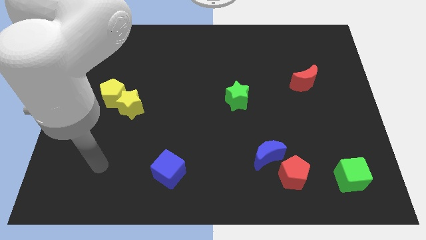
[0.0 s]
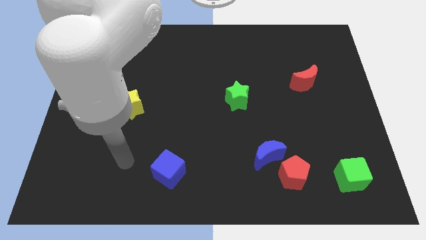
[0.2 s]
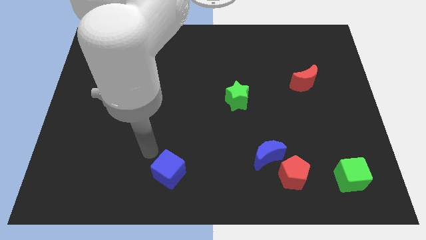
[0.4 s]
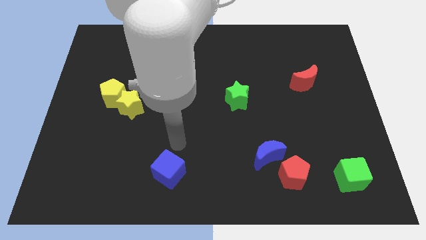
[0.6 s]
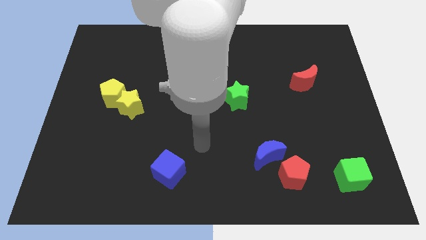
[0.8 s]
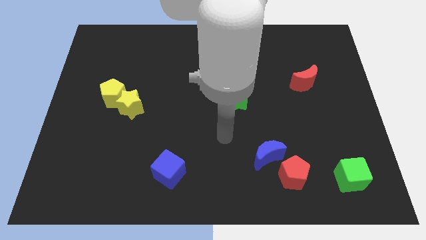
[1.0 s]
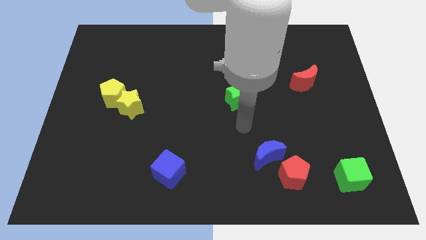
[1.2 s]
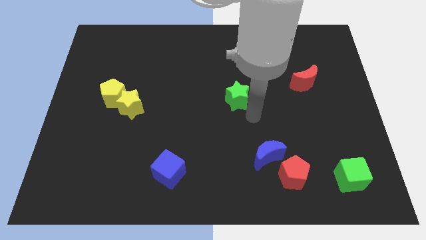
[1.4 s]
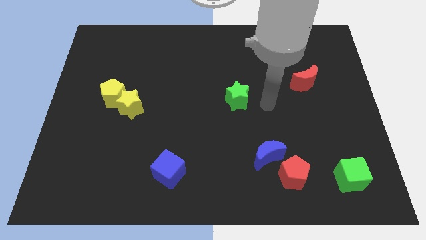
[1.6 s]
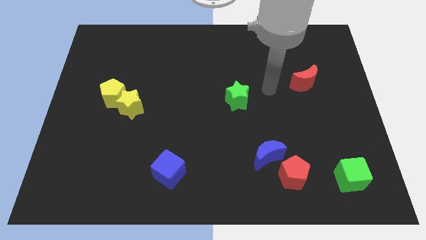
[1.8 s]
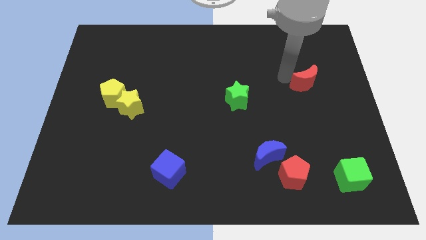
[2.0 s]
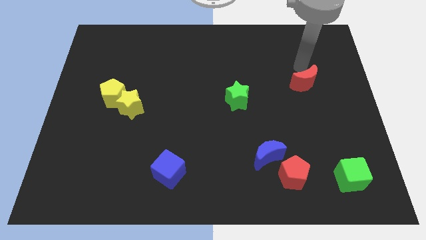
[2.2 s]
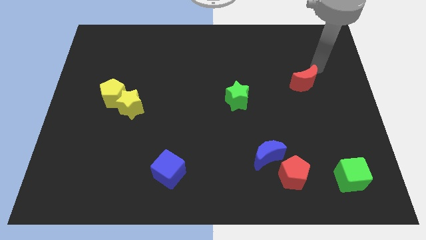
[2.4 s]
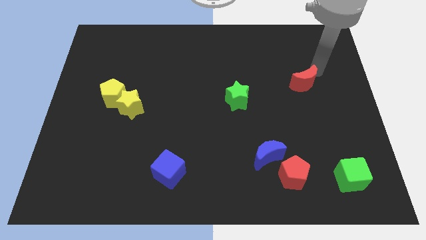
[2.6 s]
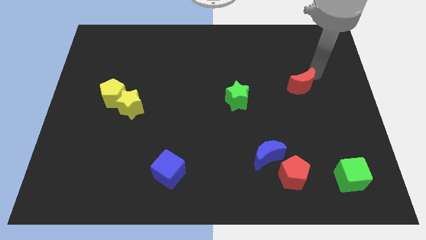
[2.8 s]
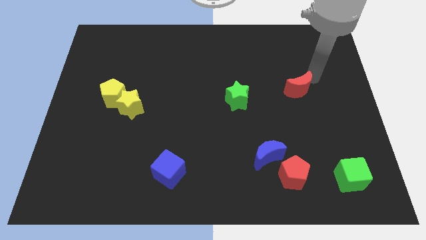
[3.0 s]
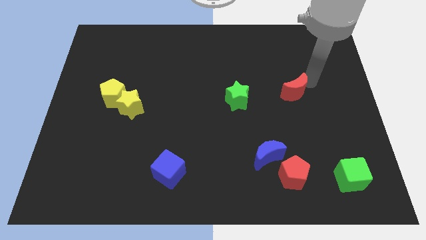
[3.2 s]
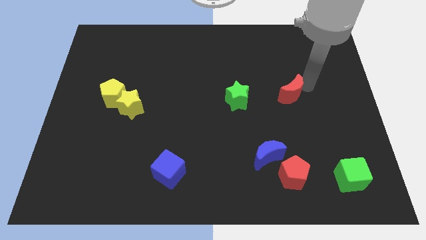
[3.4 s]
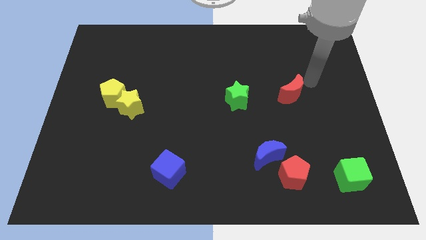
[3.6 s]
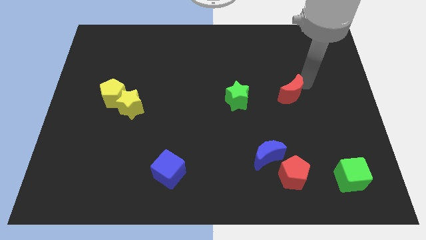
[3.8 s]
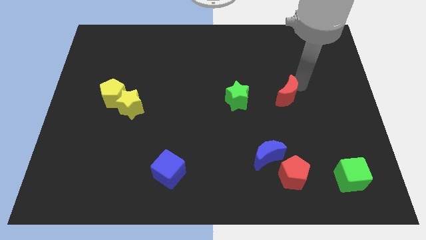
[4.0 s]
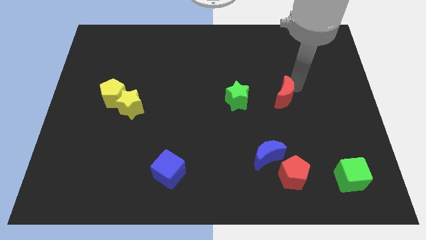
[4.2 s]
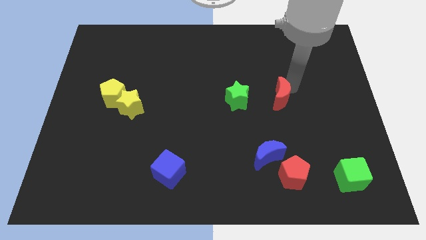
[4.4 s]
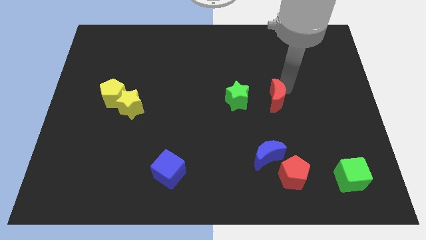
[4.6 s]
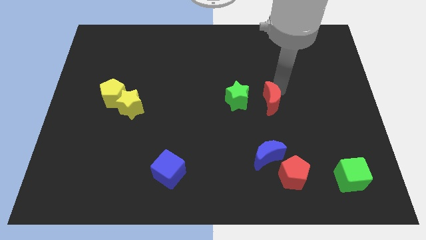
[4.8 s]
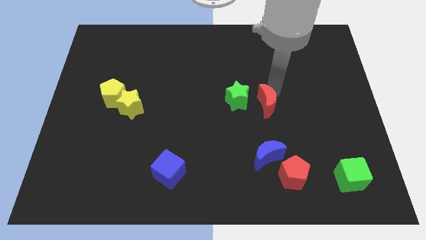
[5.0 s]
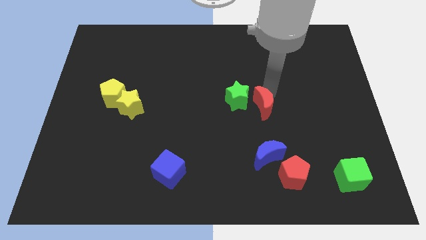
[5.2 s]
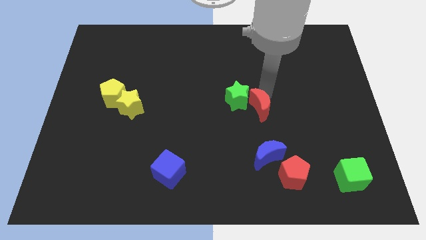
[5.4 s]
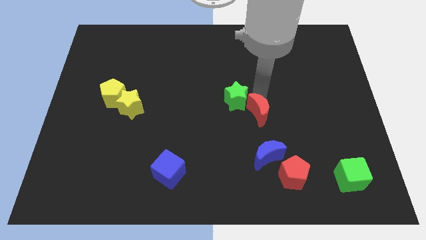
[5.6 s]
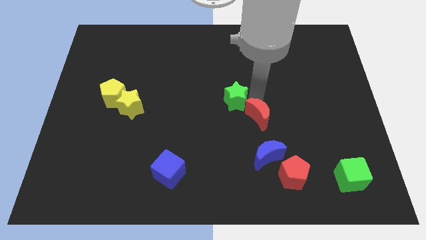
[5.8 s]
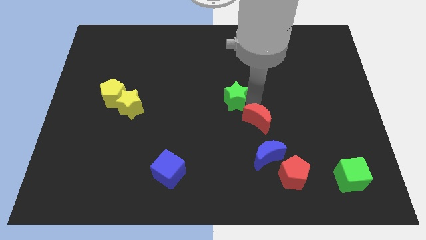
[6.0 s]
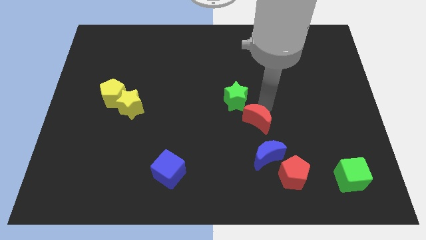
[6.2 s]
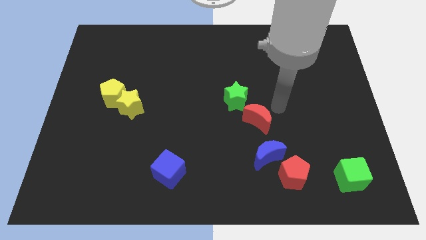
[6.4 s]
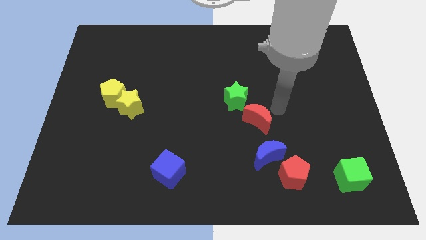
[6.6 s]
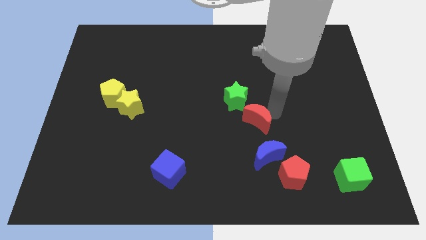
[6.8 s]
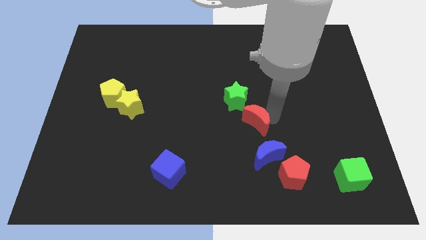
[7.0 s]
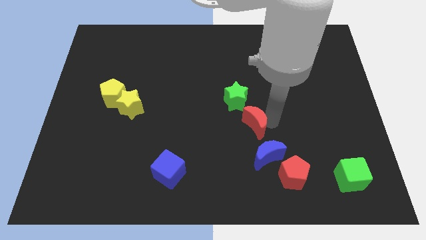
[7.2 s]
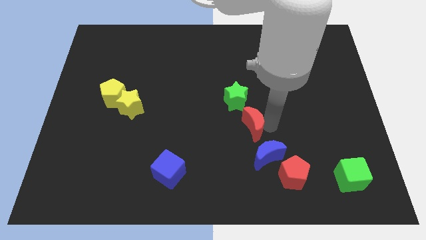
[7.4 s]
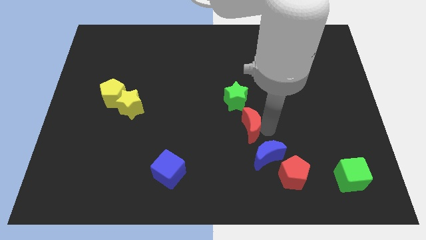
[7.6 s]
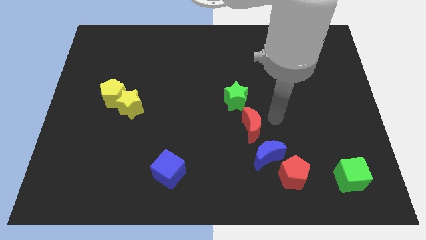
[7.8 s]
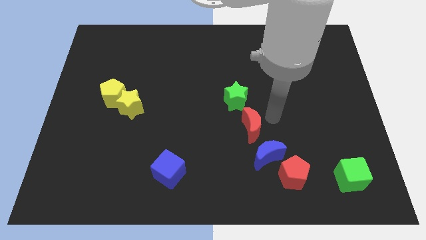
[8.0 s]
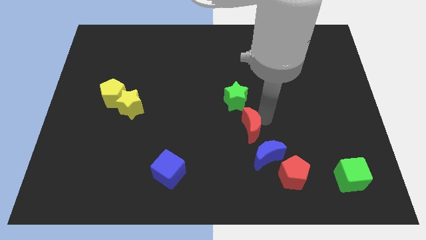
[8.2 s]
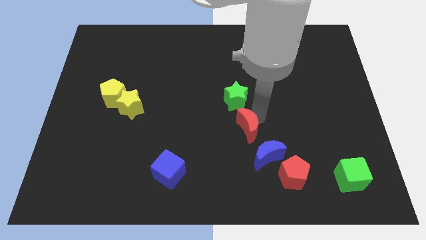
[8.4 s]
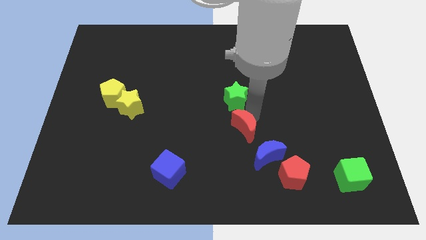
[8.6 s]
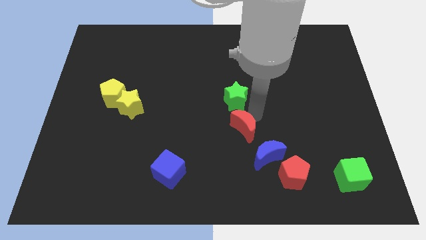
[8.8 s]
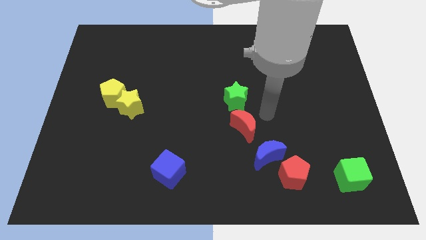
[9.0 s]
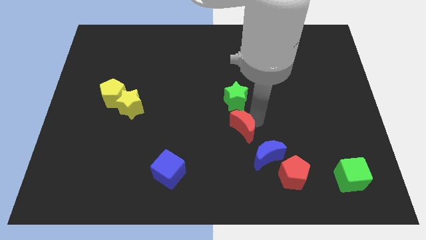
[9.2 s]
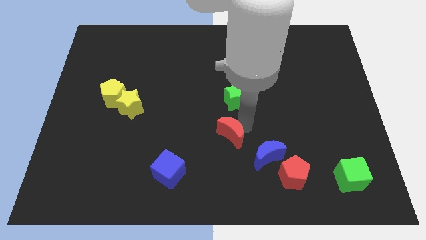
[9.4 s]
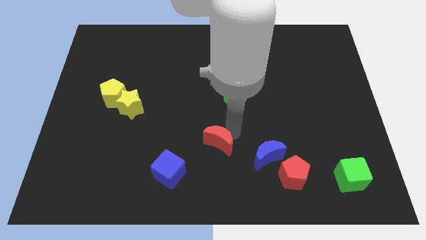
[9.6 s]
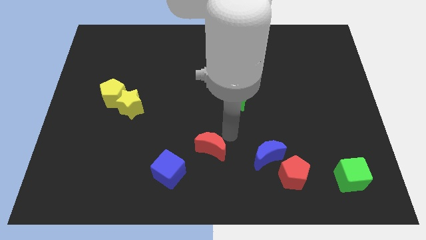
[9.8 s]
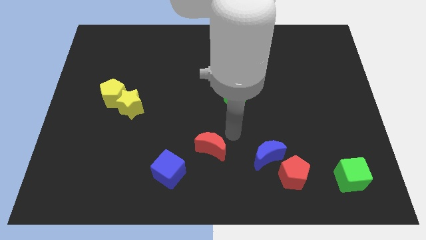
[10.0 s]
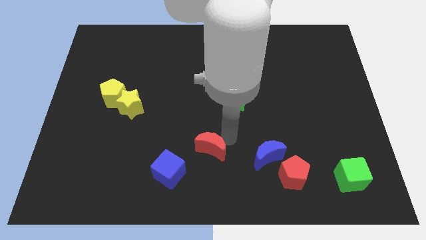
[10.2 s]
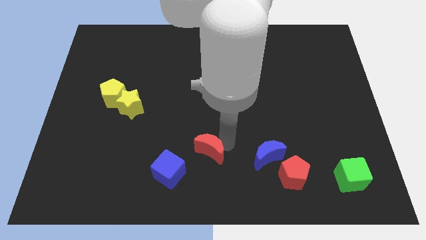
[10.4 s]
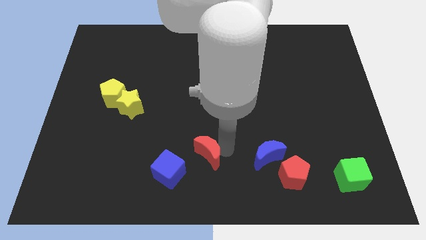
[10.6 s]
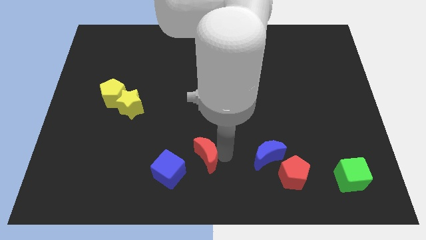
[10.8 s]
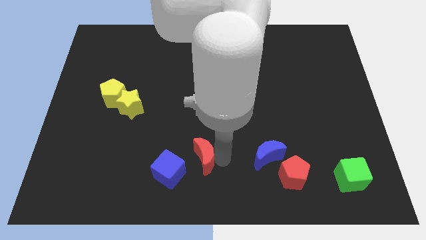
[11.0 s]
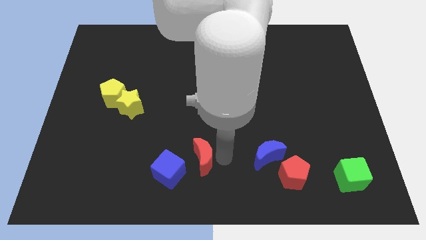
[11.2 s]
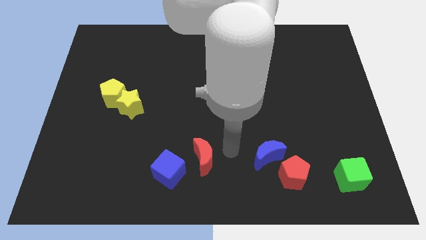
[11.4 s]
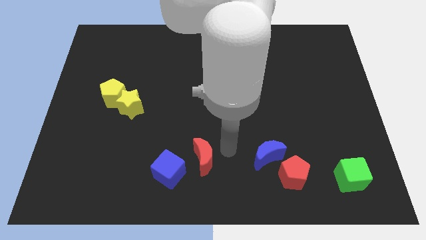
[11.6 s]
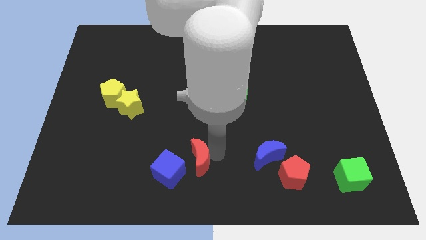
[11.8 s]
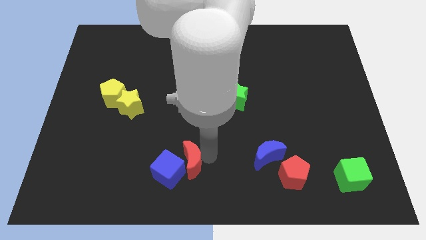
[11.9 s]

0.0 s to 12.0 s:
slide the red moon towards the blue cube
